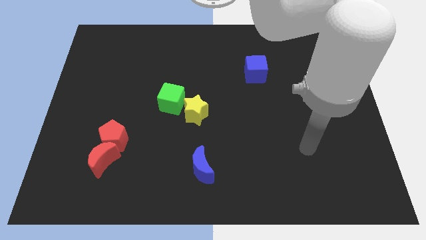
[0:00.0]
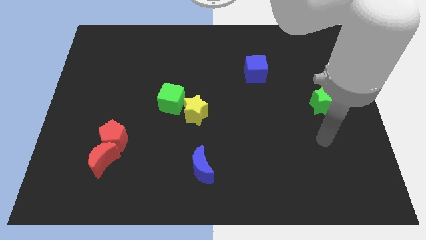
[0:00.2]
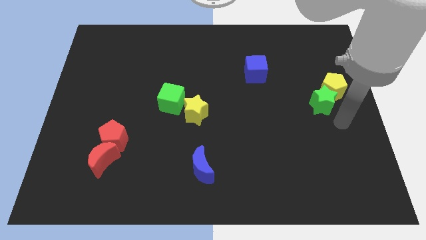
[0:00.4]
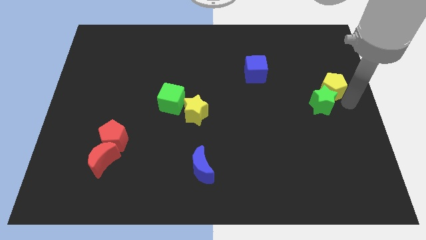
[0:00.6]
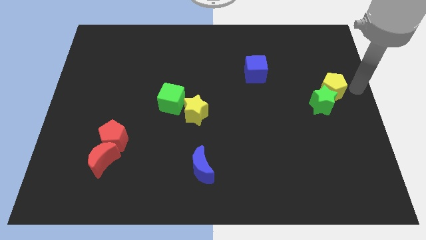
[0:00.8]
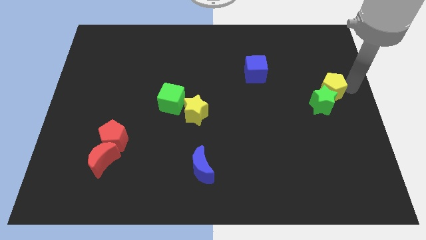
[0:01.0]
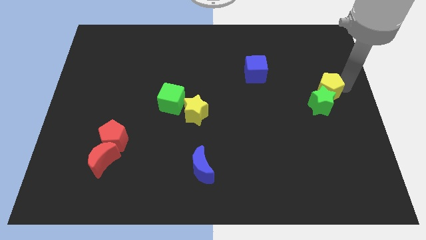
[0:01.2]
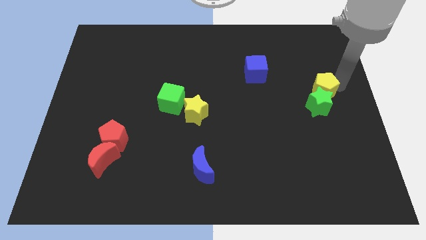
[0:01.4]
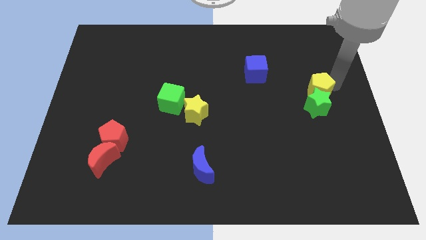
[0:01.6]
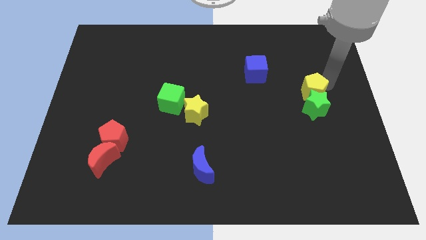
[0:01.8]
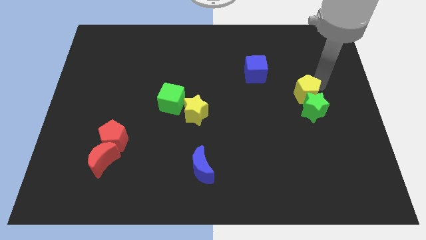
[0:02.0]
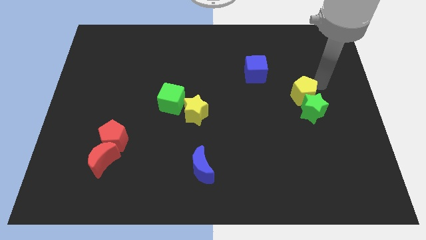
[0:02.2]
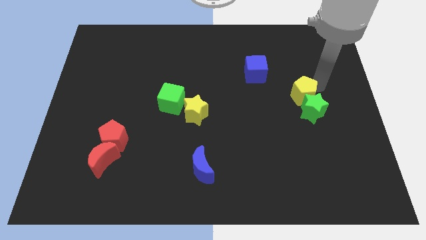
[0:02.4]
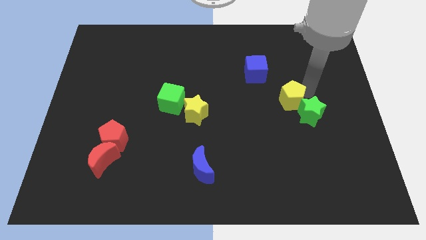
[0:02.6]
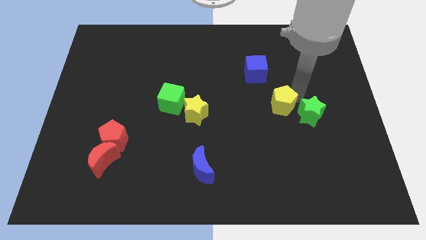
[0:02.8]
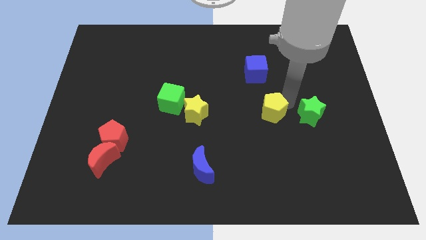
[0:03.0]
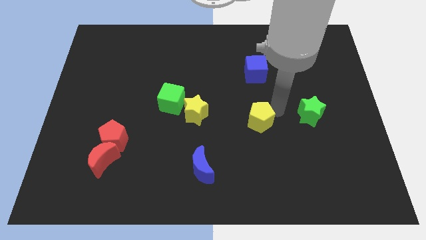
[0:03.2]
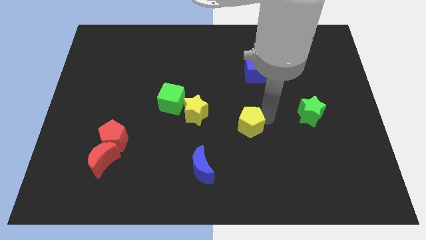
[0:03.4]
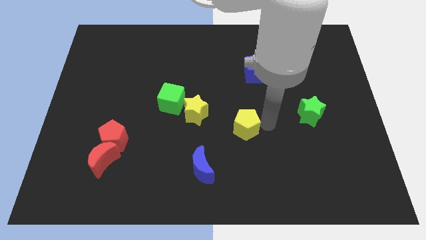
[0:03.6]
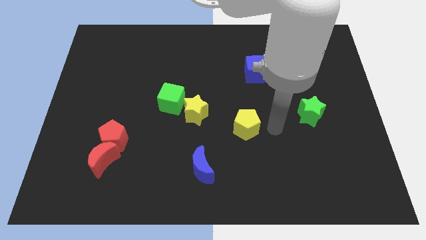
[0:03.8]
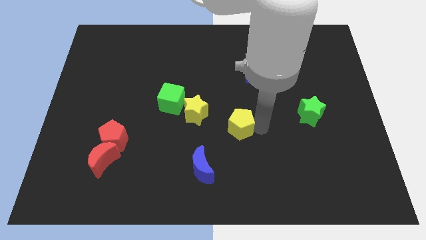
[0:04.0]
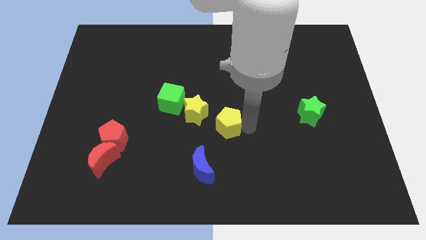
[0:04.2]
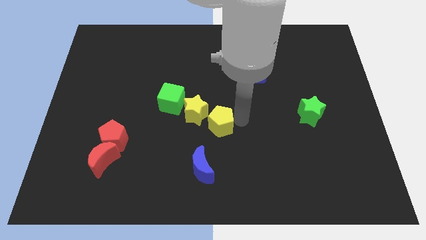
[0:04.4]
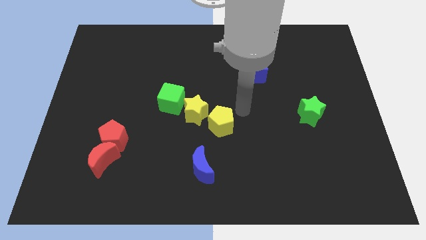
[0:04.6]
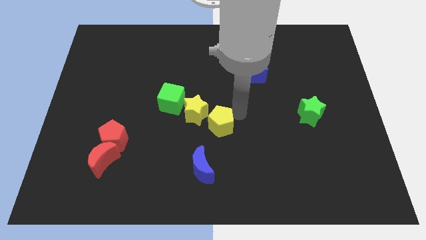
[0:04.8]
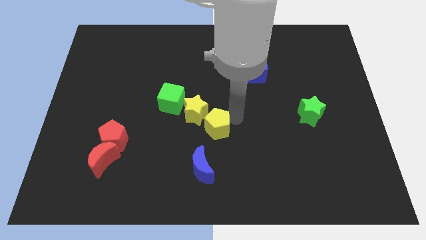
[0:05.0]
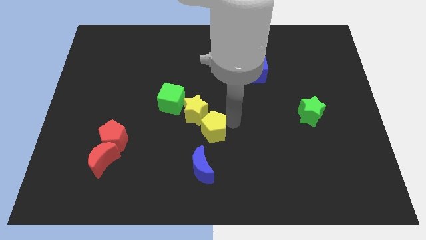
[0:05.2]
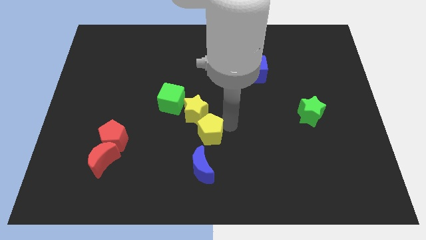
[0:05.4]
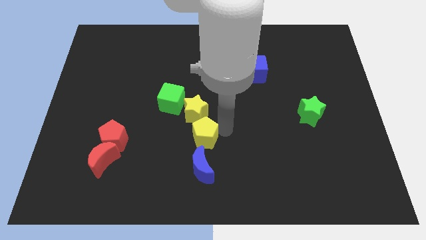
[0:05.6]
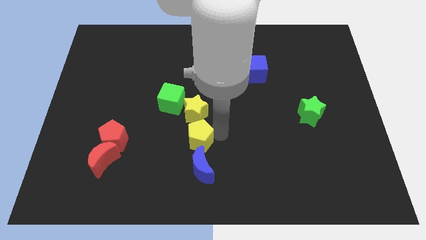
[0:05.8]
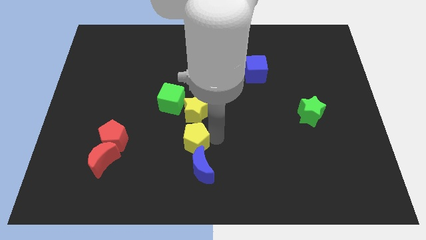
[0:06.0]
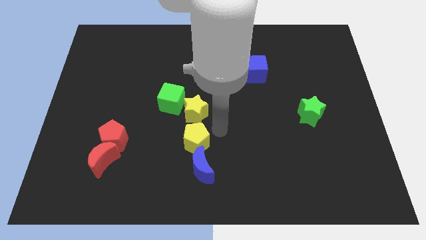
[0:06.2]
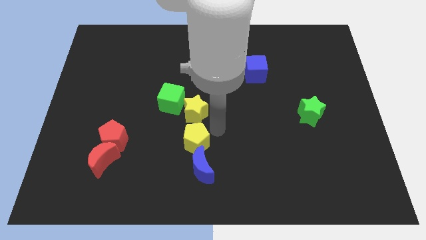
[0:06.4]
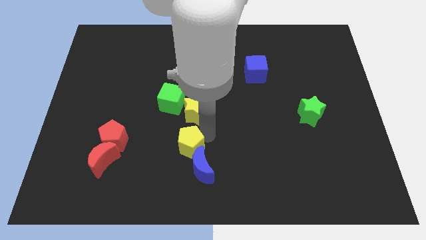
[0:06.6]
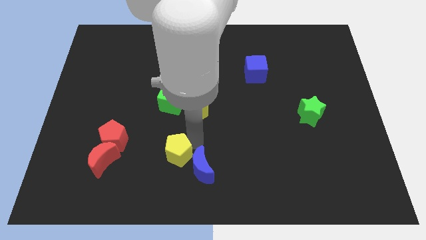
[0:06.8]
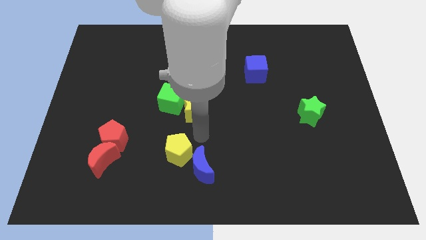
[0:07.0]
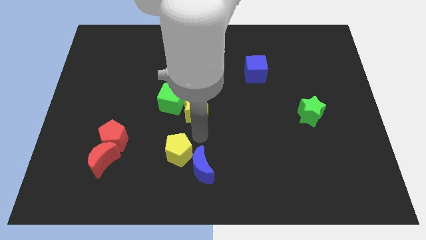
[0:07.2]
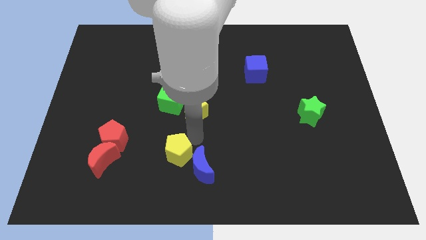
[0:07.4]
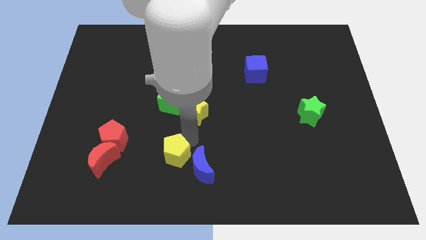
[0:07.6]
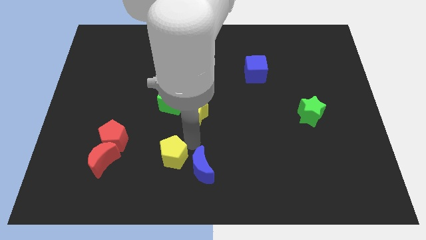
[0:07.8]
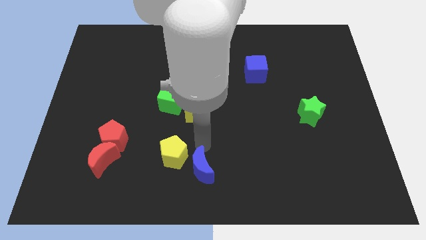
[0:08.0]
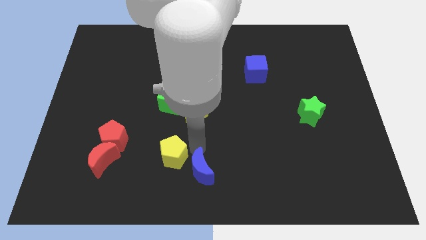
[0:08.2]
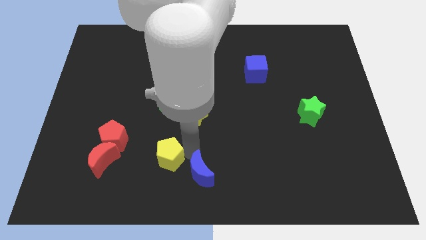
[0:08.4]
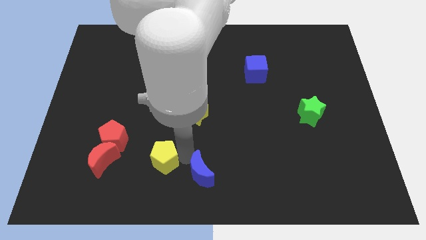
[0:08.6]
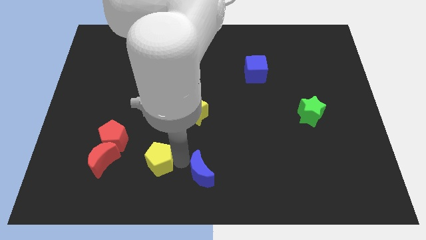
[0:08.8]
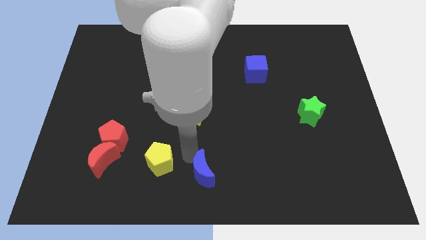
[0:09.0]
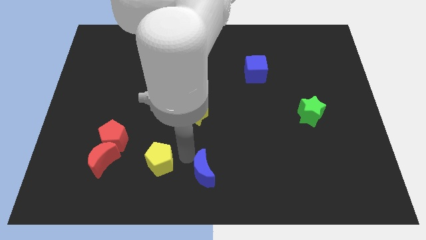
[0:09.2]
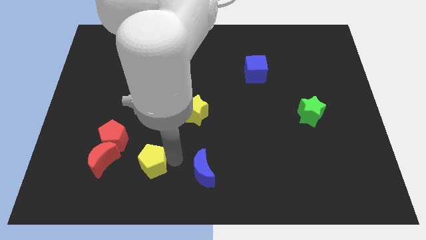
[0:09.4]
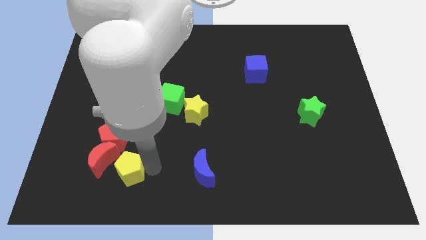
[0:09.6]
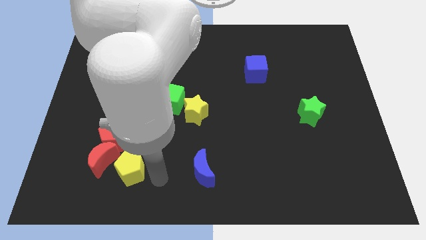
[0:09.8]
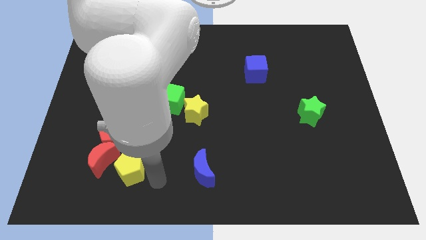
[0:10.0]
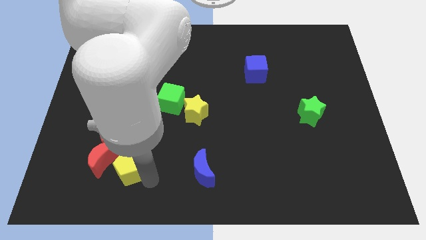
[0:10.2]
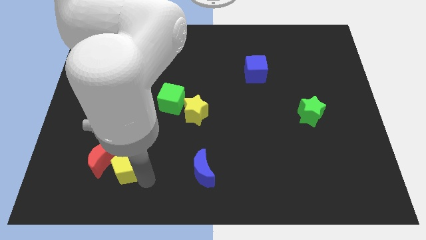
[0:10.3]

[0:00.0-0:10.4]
put the yellow pentagon to the red moon

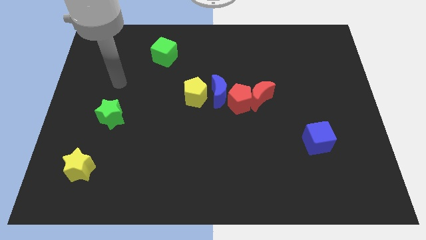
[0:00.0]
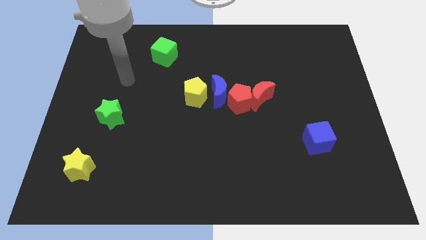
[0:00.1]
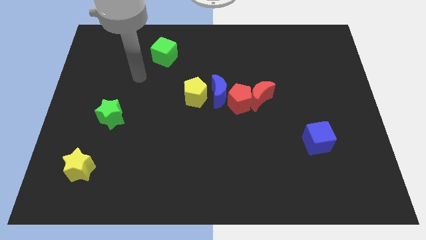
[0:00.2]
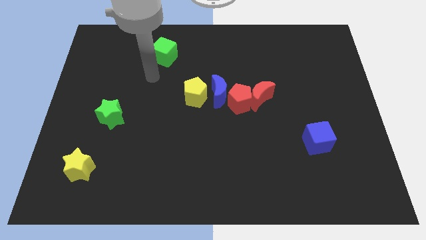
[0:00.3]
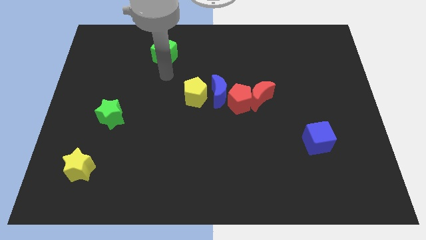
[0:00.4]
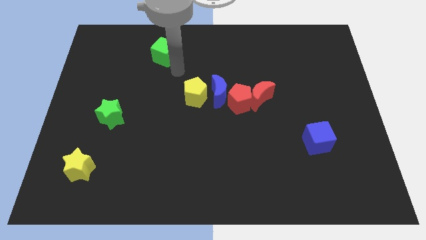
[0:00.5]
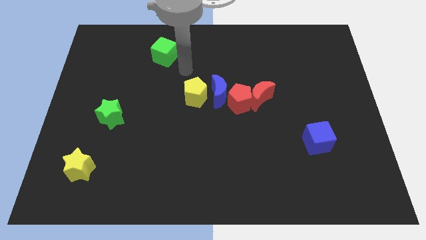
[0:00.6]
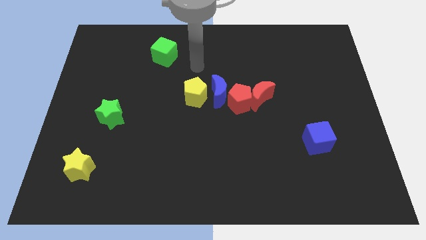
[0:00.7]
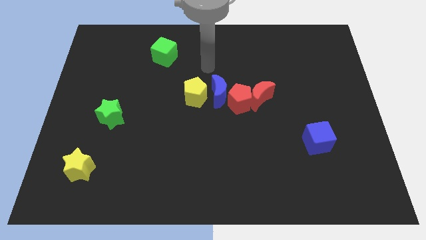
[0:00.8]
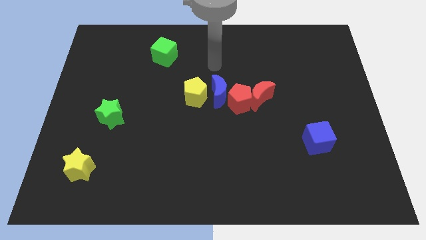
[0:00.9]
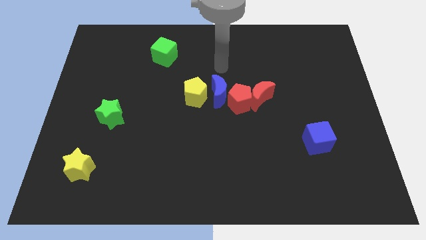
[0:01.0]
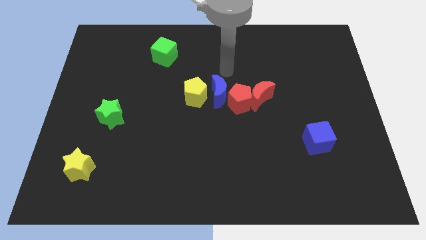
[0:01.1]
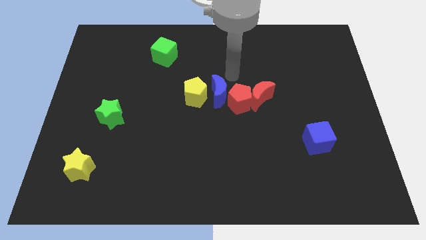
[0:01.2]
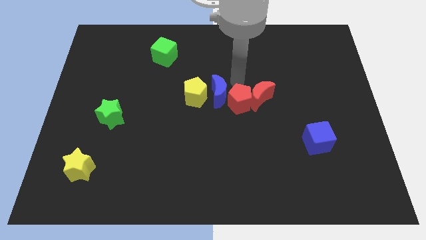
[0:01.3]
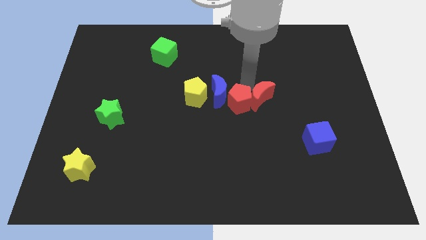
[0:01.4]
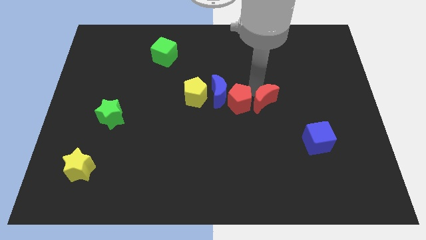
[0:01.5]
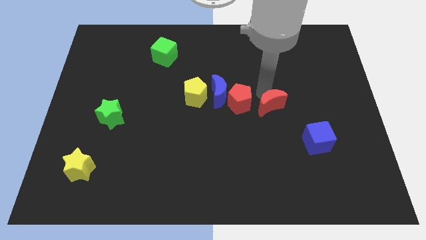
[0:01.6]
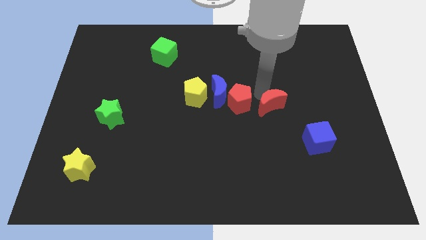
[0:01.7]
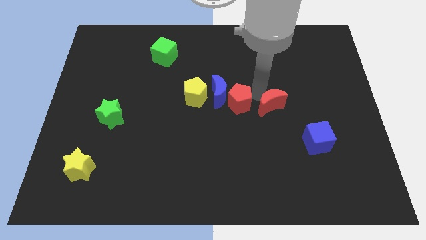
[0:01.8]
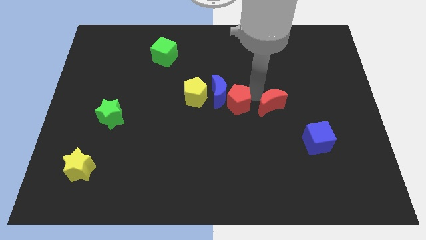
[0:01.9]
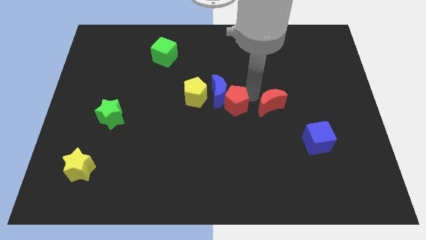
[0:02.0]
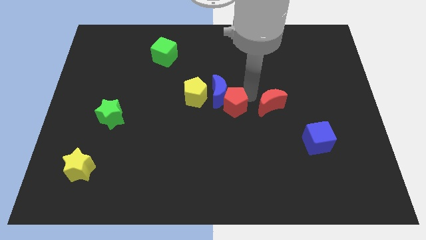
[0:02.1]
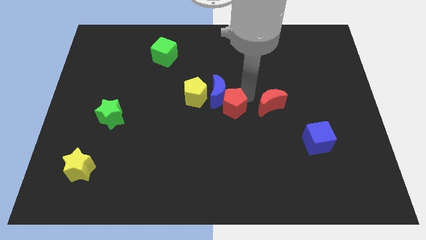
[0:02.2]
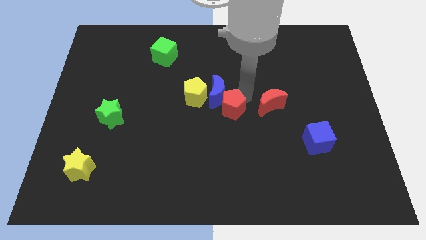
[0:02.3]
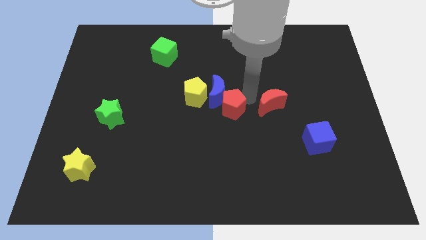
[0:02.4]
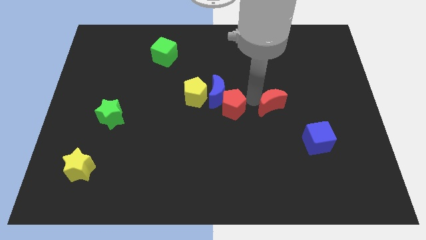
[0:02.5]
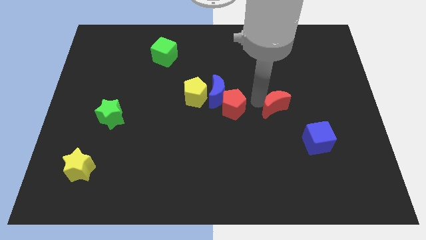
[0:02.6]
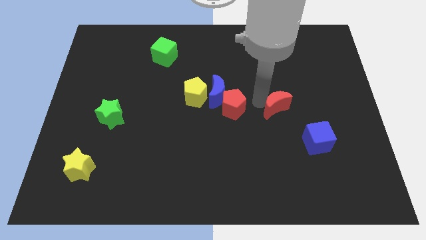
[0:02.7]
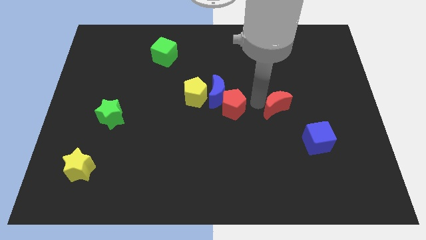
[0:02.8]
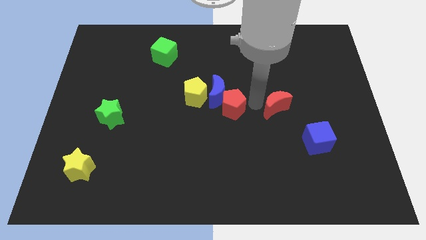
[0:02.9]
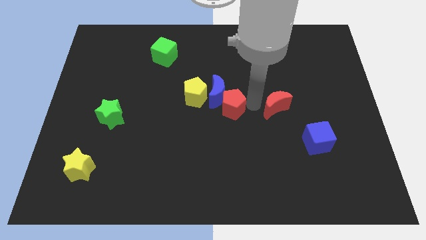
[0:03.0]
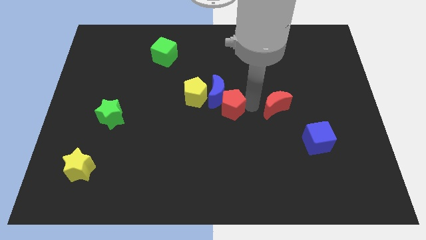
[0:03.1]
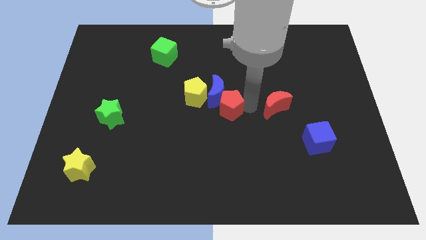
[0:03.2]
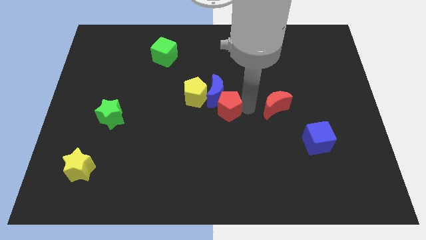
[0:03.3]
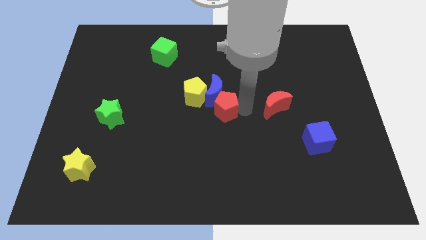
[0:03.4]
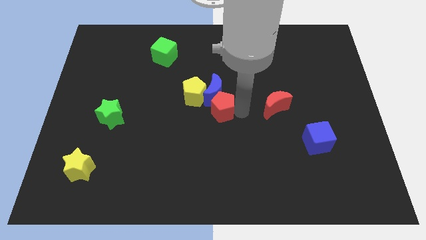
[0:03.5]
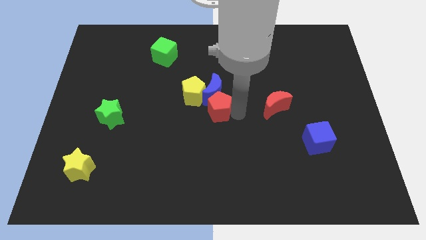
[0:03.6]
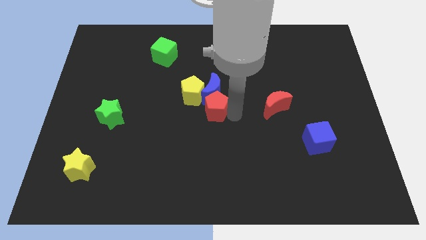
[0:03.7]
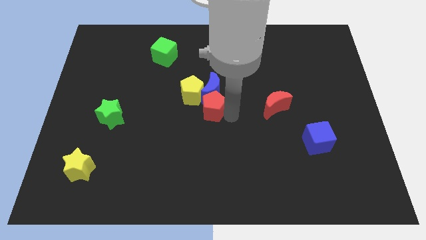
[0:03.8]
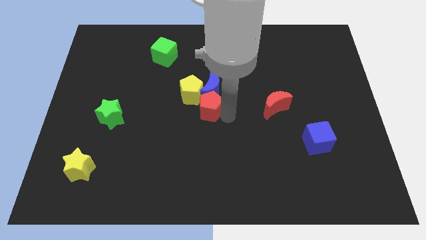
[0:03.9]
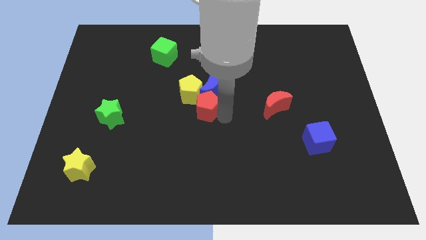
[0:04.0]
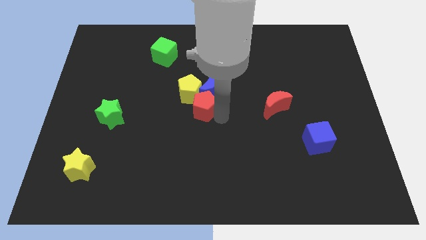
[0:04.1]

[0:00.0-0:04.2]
put the red pentagon next to the yellow pentagon
